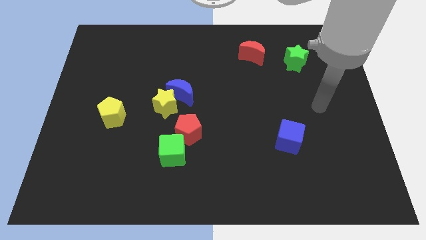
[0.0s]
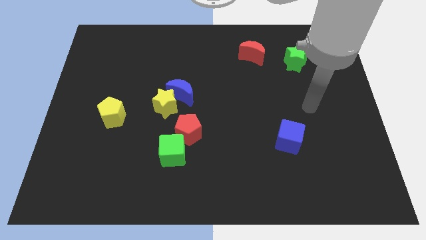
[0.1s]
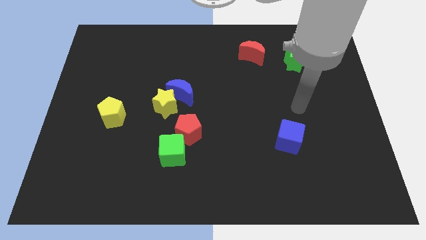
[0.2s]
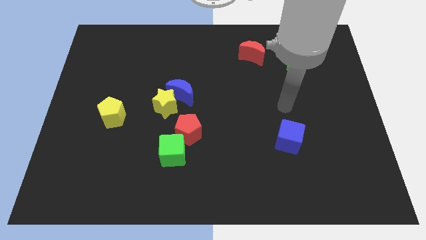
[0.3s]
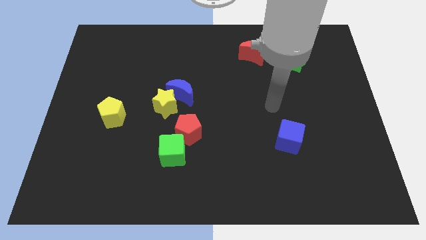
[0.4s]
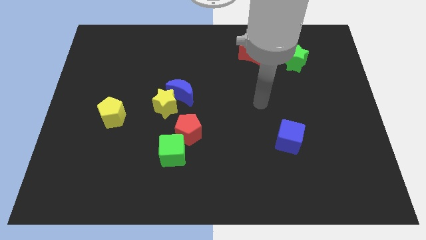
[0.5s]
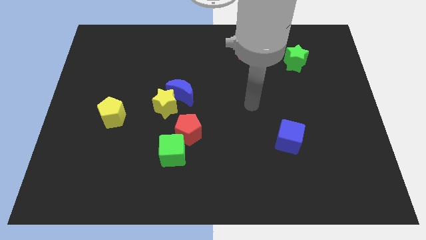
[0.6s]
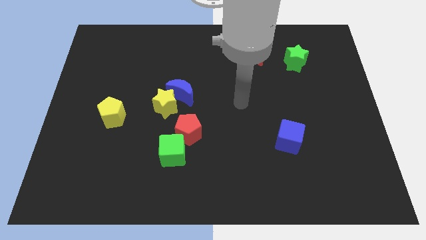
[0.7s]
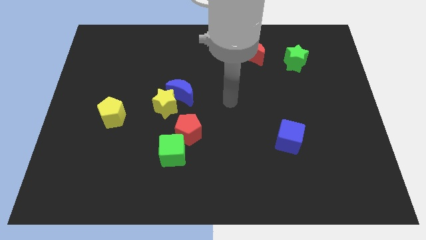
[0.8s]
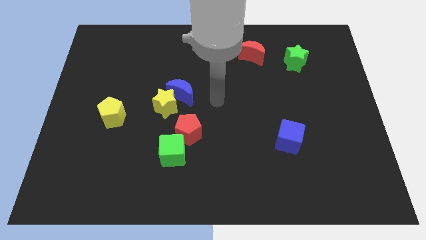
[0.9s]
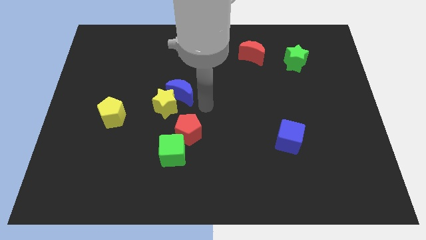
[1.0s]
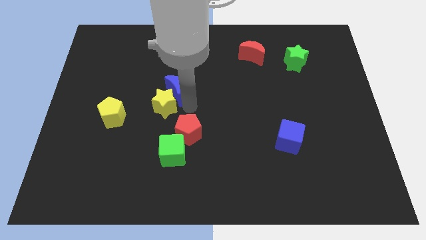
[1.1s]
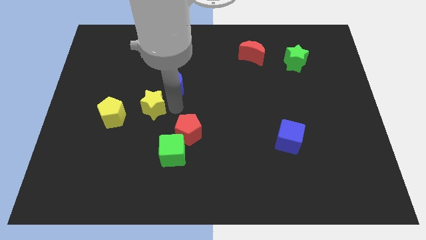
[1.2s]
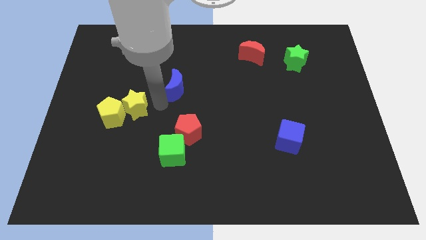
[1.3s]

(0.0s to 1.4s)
move the blue moon away from the yellow star

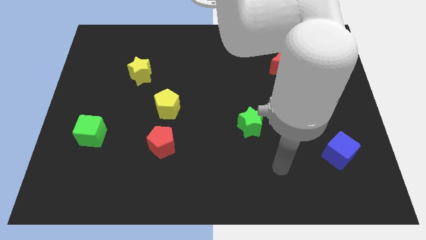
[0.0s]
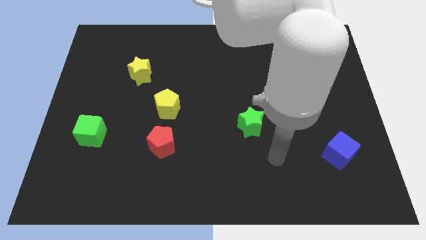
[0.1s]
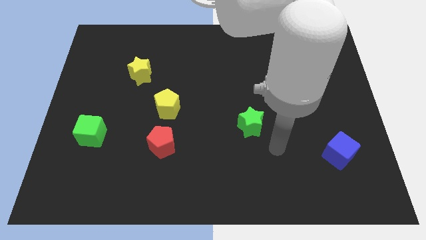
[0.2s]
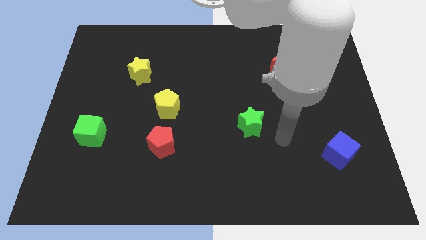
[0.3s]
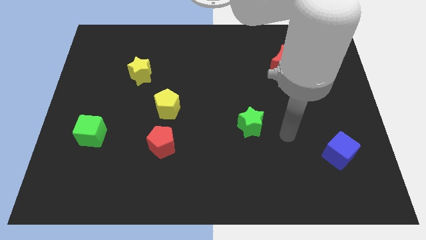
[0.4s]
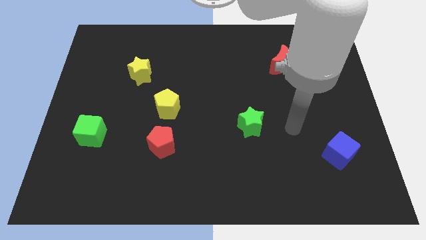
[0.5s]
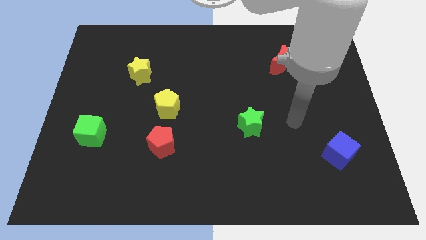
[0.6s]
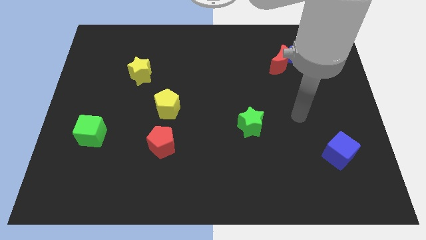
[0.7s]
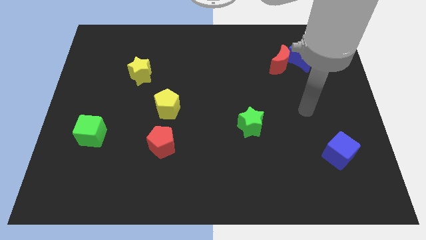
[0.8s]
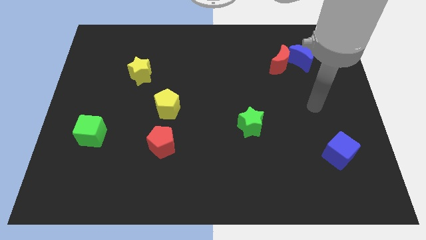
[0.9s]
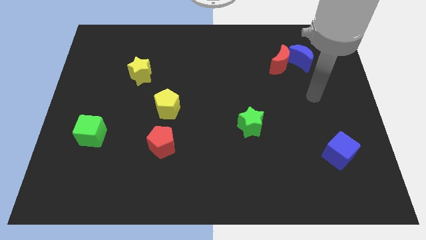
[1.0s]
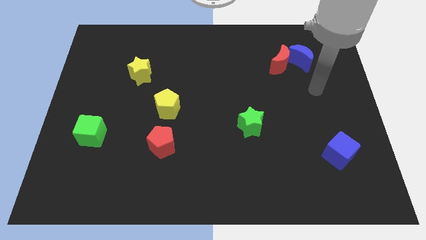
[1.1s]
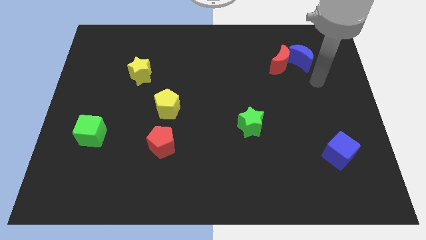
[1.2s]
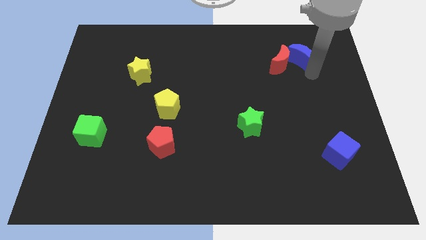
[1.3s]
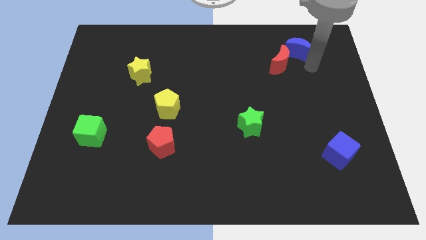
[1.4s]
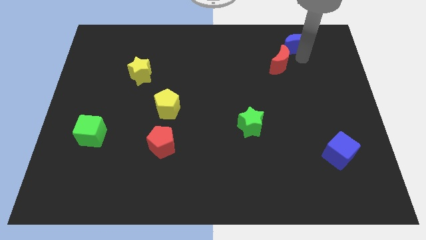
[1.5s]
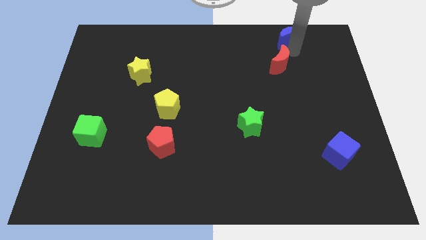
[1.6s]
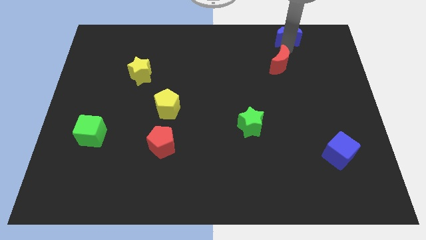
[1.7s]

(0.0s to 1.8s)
separate the red moon from the blue moon

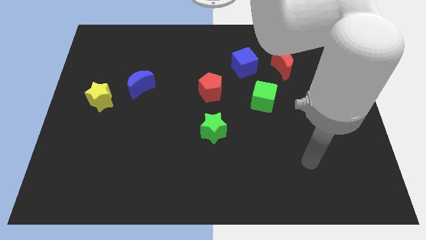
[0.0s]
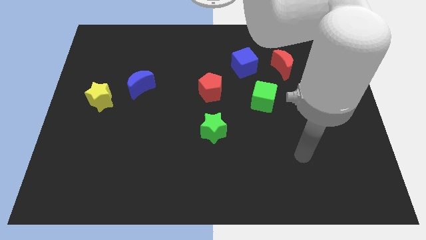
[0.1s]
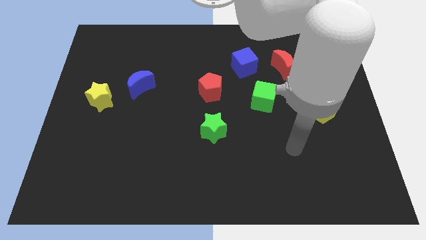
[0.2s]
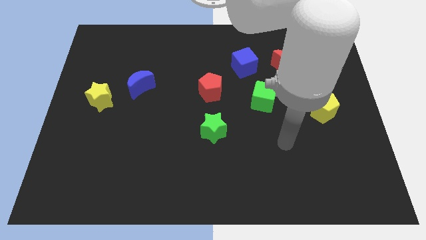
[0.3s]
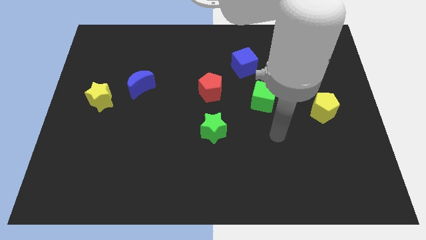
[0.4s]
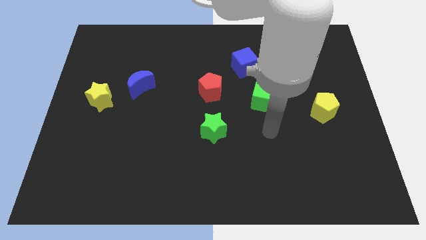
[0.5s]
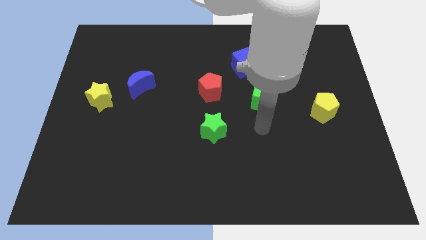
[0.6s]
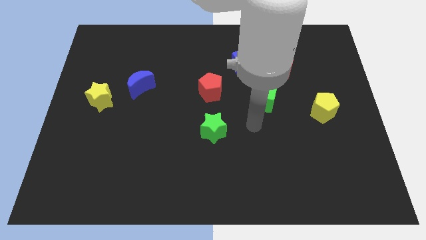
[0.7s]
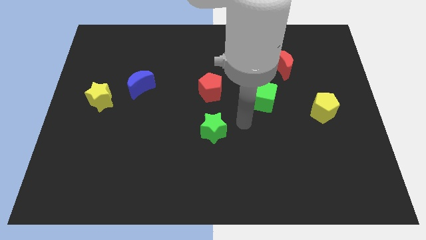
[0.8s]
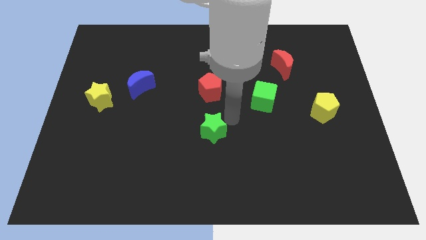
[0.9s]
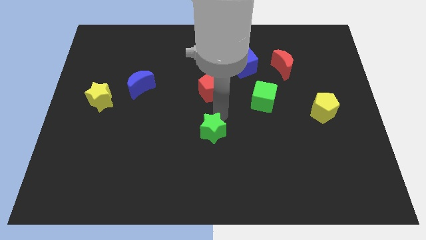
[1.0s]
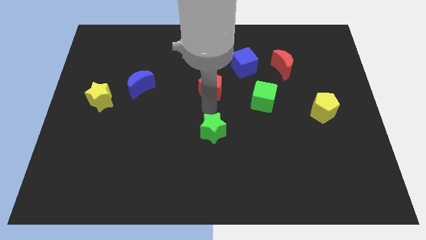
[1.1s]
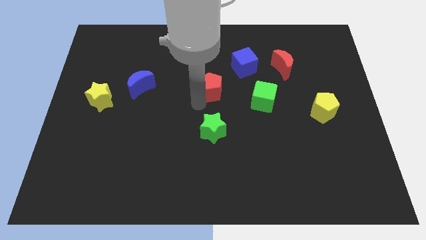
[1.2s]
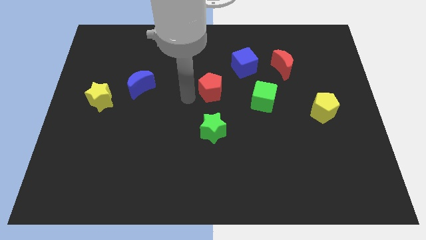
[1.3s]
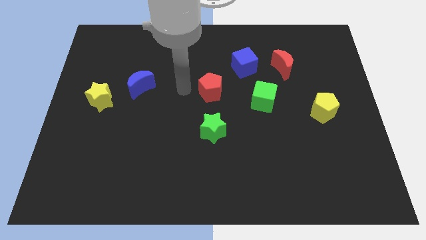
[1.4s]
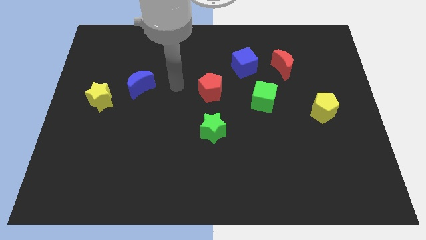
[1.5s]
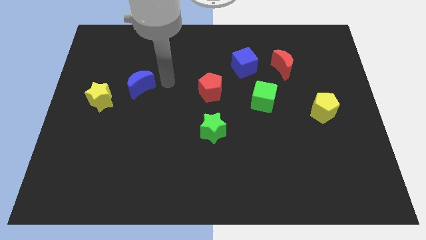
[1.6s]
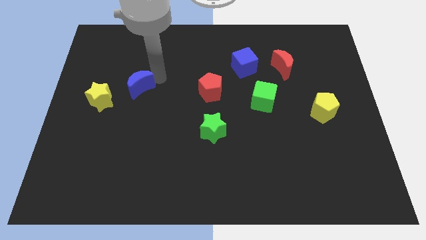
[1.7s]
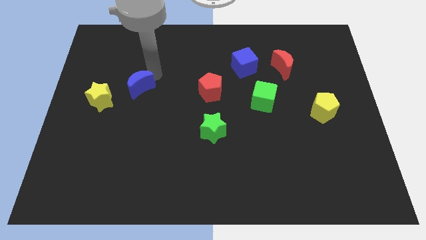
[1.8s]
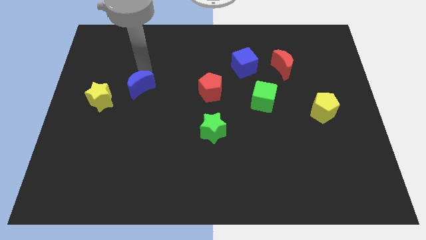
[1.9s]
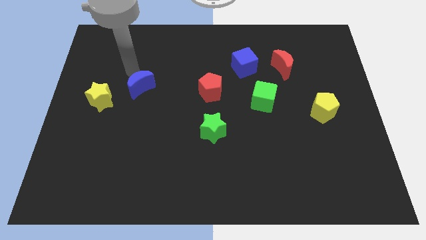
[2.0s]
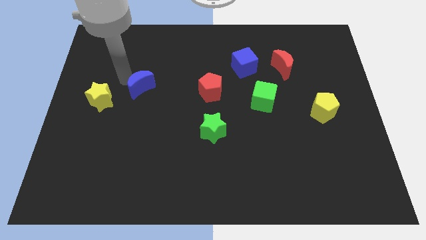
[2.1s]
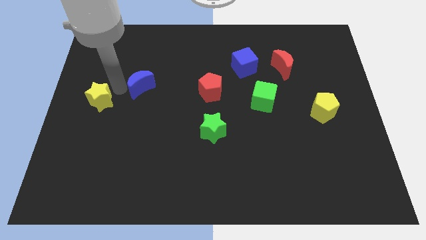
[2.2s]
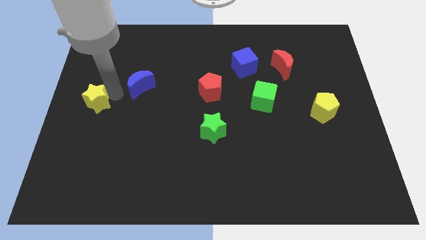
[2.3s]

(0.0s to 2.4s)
separate the blue moon from the yellow star

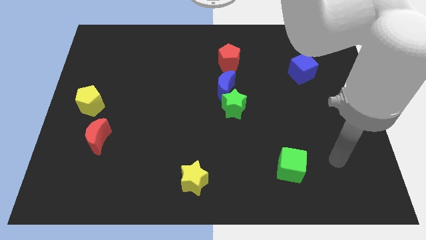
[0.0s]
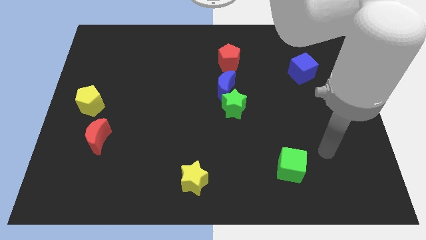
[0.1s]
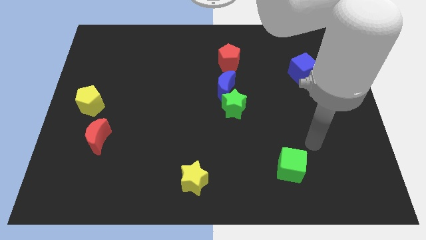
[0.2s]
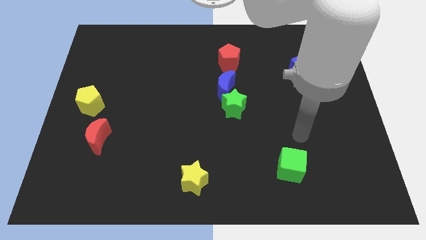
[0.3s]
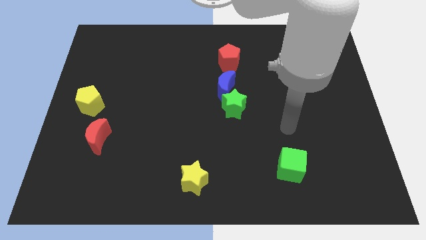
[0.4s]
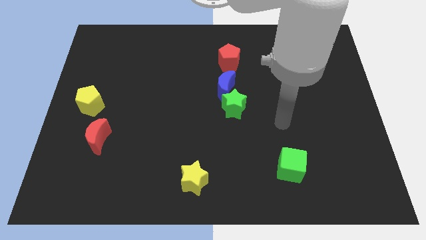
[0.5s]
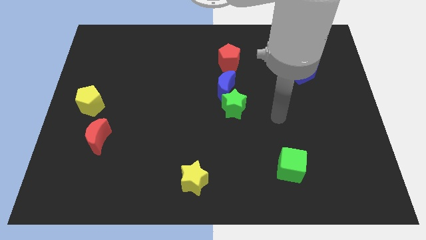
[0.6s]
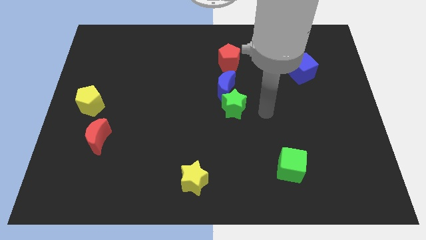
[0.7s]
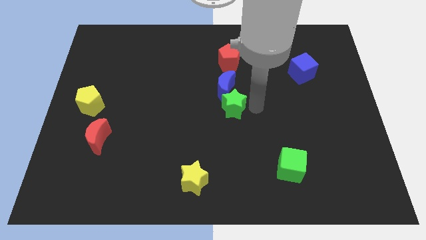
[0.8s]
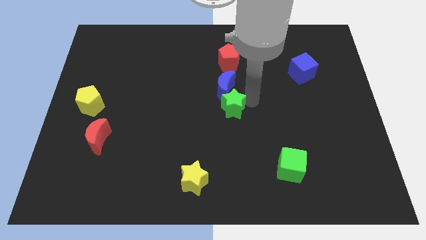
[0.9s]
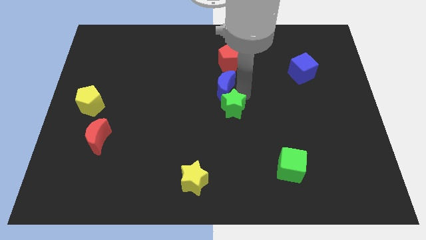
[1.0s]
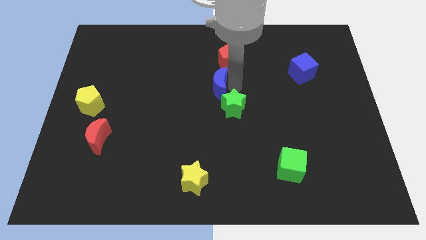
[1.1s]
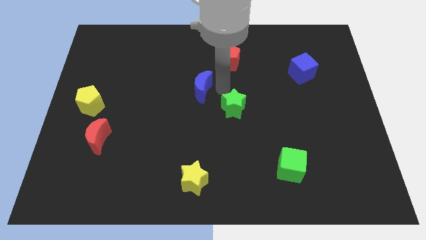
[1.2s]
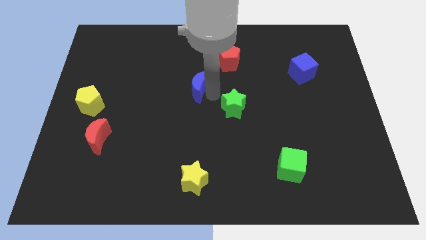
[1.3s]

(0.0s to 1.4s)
move the green star away from the blue moon

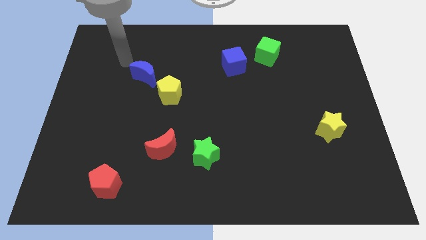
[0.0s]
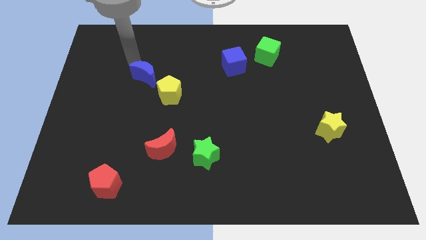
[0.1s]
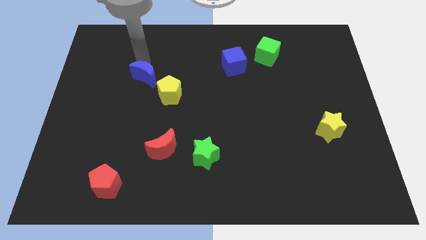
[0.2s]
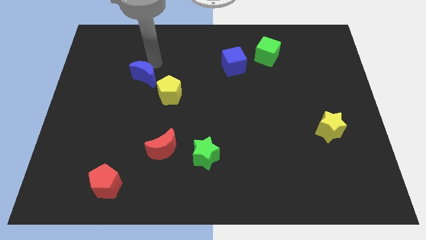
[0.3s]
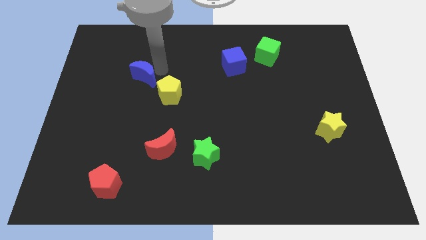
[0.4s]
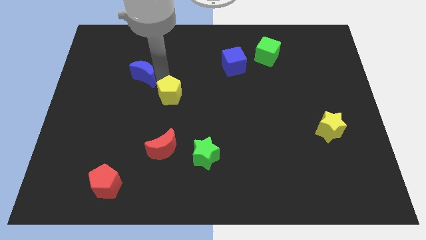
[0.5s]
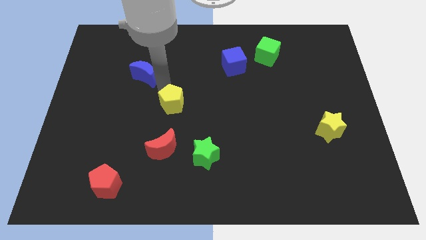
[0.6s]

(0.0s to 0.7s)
separate the blue moon from the yellow pentagon

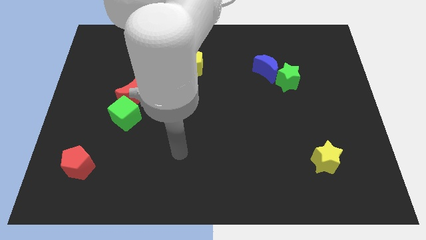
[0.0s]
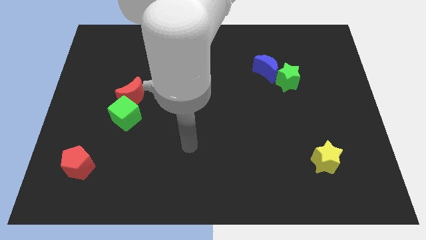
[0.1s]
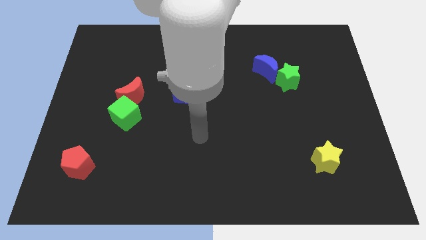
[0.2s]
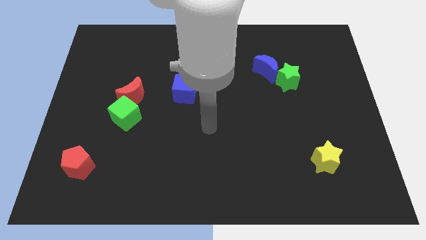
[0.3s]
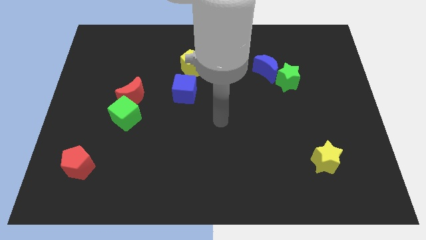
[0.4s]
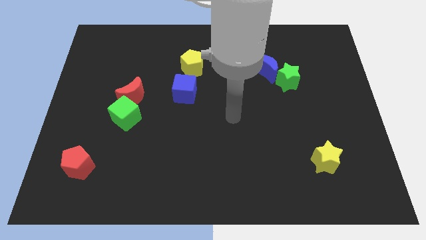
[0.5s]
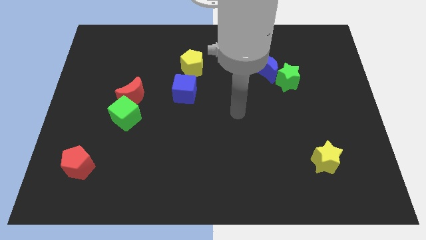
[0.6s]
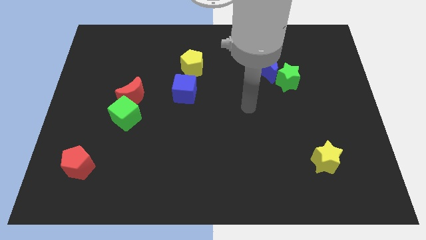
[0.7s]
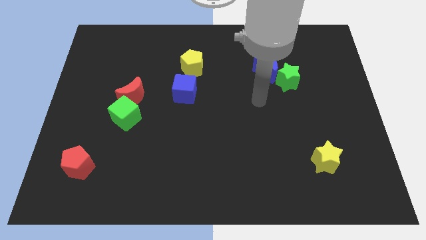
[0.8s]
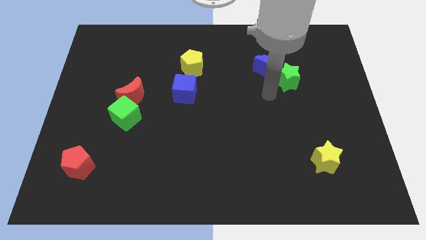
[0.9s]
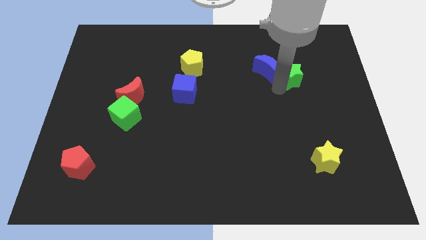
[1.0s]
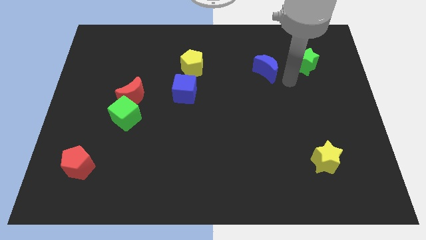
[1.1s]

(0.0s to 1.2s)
pull the blue moon apart from the green star

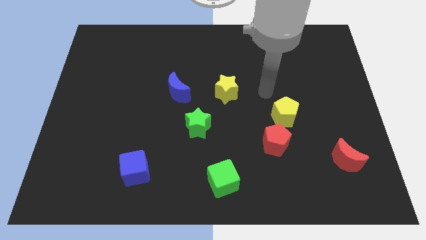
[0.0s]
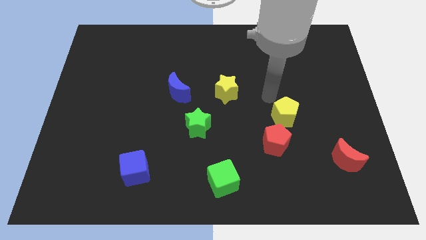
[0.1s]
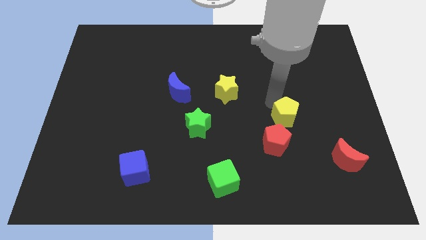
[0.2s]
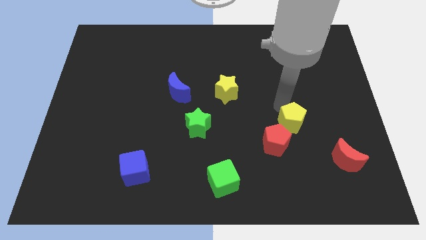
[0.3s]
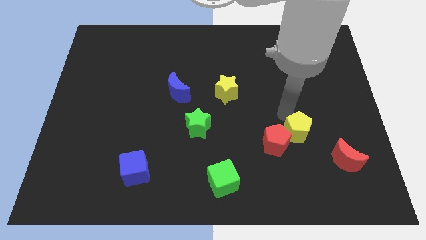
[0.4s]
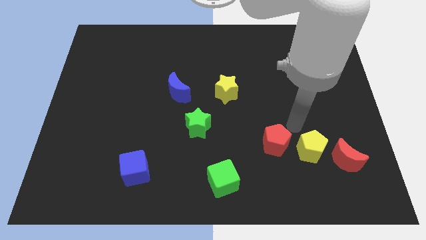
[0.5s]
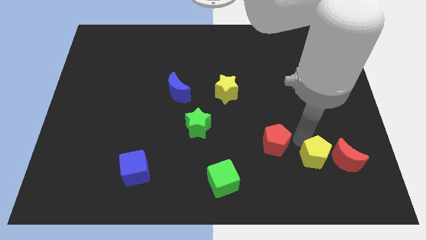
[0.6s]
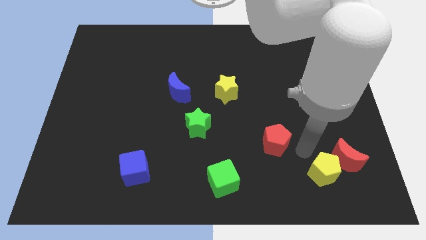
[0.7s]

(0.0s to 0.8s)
move the red pentagon away from the yellow pentagon
